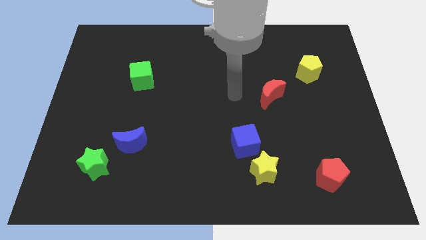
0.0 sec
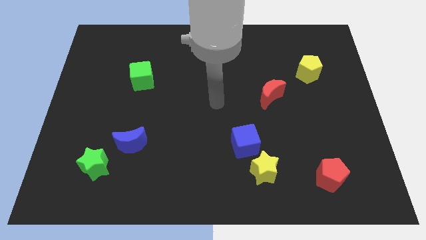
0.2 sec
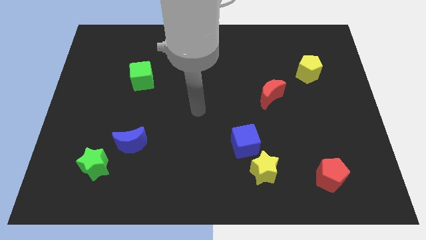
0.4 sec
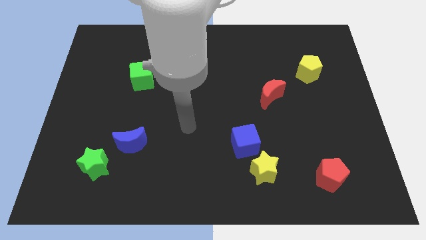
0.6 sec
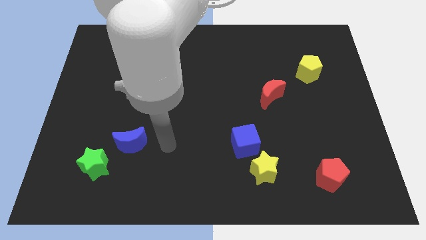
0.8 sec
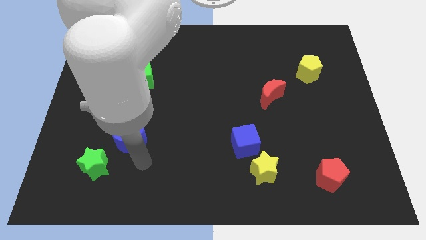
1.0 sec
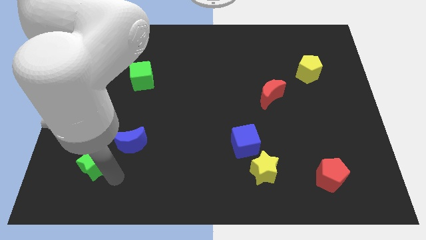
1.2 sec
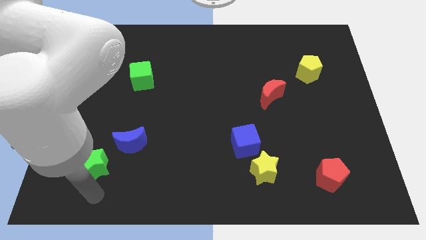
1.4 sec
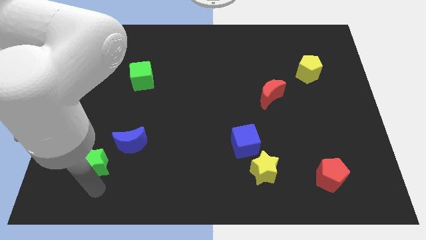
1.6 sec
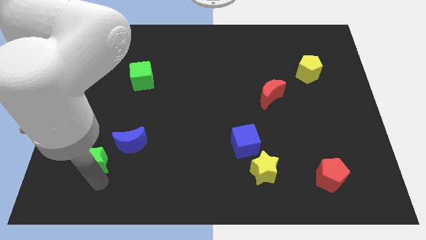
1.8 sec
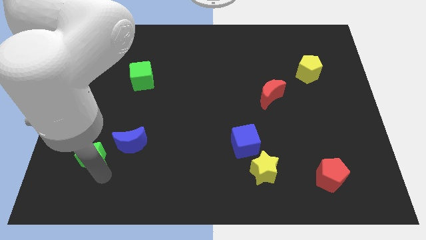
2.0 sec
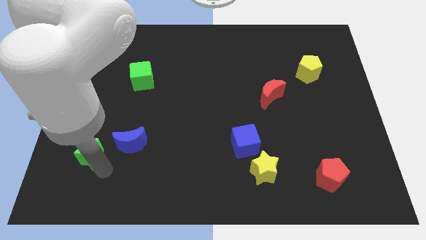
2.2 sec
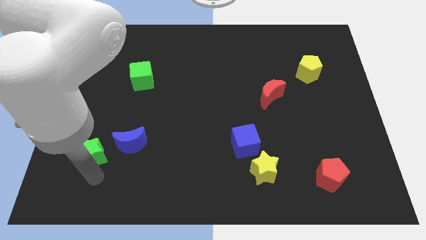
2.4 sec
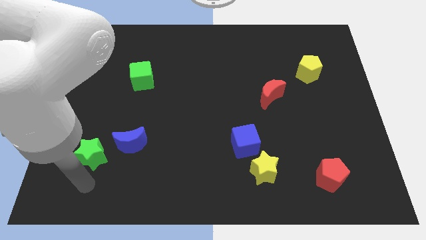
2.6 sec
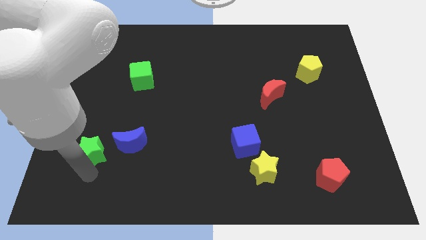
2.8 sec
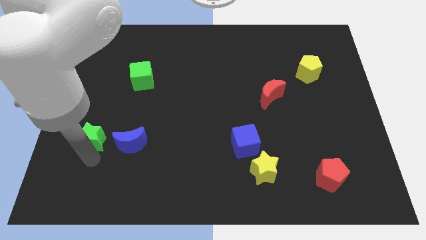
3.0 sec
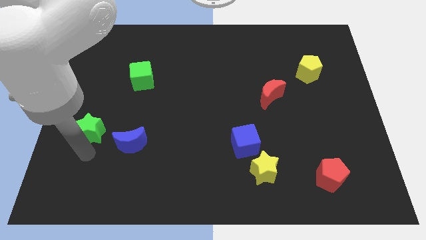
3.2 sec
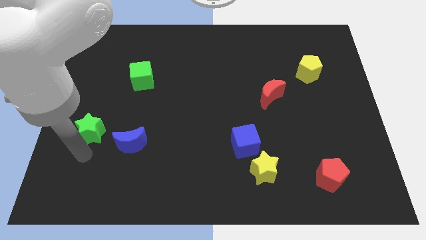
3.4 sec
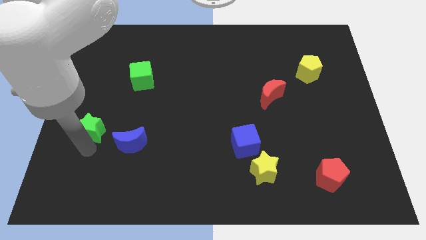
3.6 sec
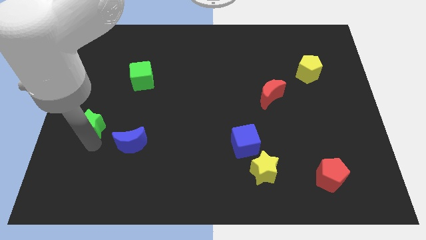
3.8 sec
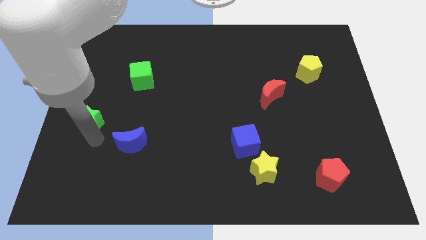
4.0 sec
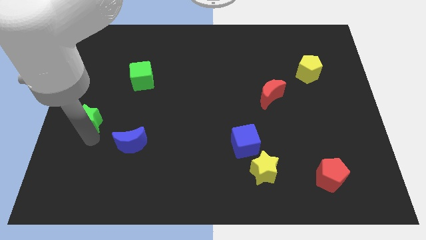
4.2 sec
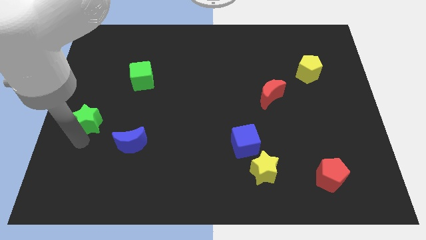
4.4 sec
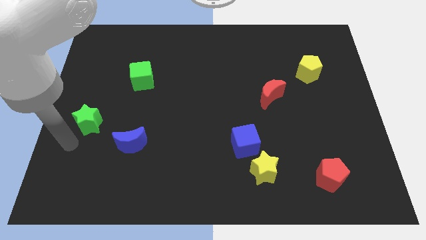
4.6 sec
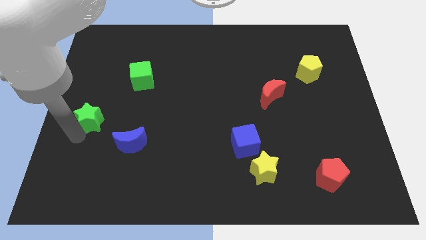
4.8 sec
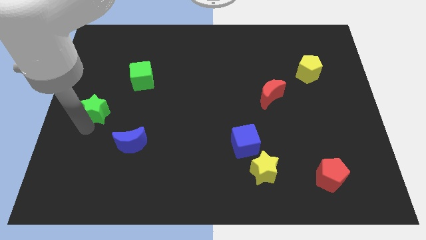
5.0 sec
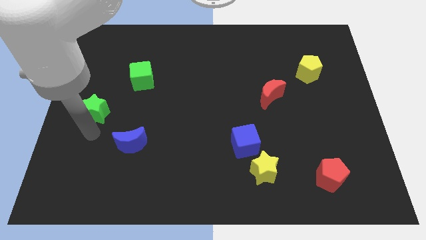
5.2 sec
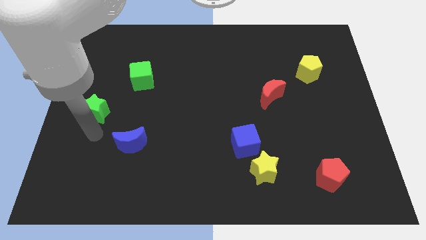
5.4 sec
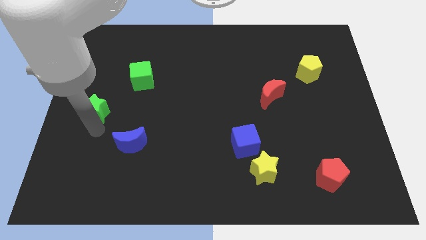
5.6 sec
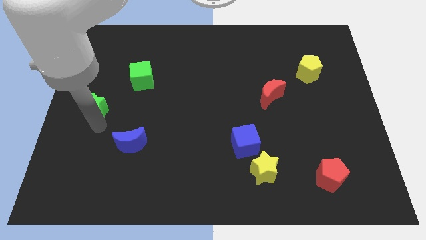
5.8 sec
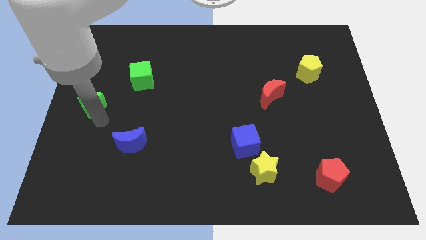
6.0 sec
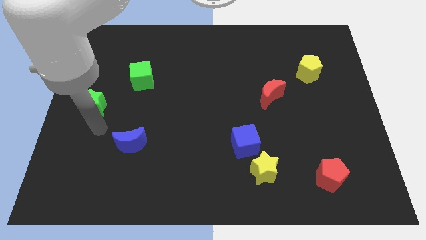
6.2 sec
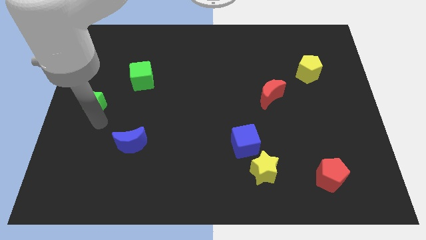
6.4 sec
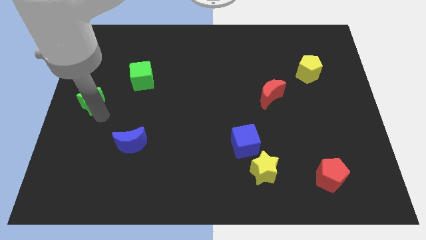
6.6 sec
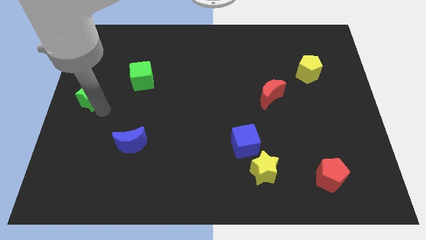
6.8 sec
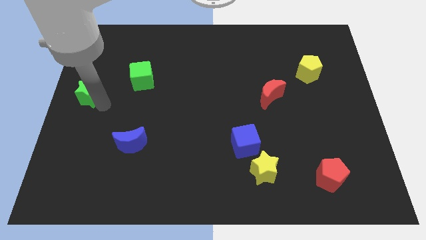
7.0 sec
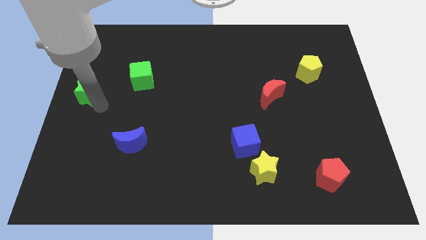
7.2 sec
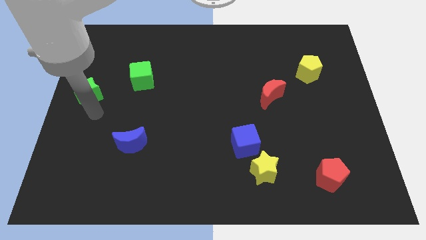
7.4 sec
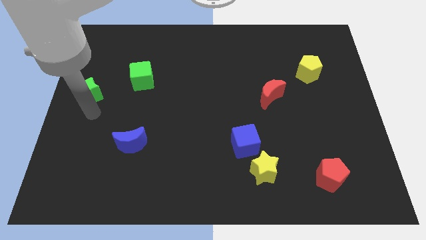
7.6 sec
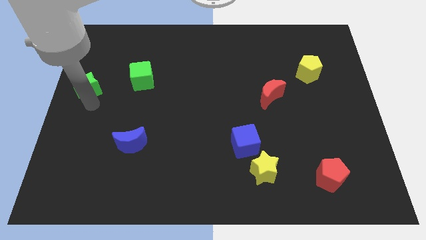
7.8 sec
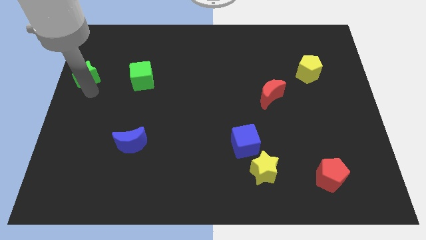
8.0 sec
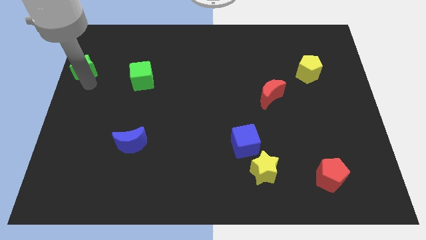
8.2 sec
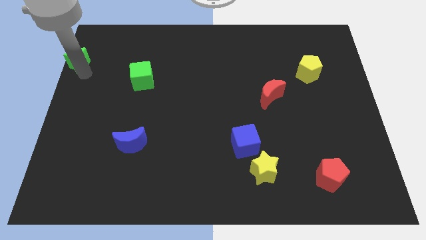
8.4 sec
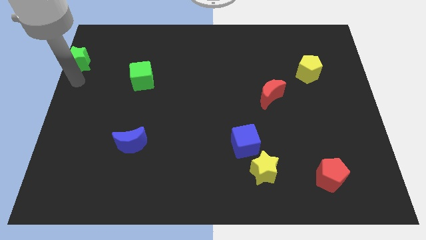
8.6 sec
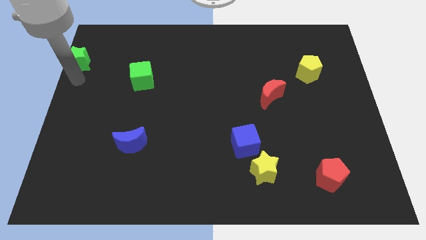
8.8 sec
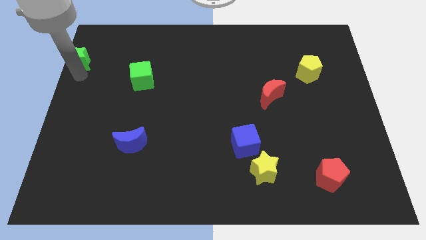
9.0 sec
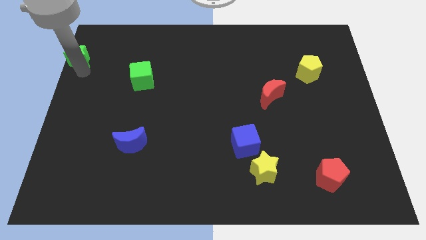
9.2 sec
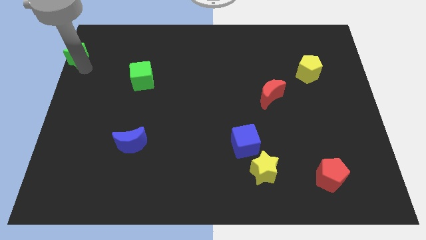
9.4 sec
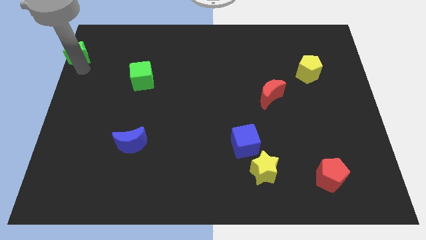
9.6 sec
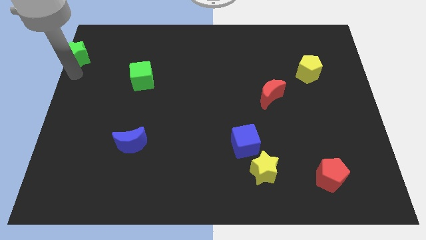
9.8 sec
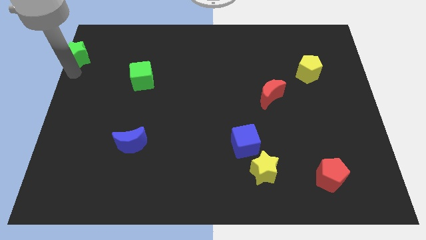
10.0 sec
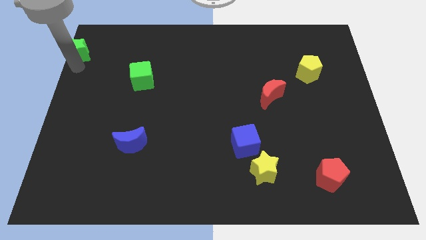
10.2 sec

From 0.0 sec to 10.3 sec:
slide the green star to the top left of the board

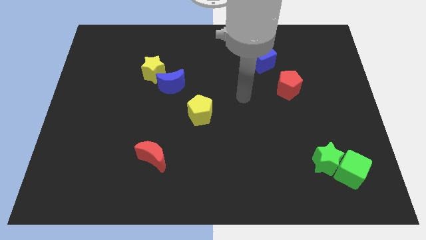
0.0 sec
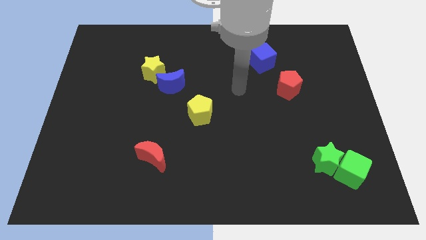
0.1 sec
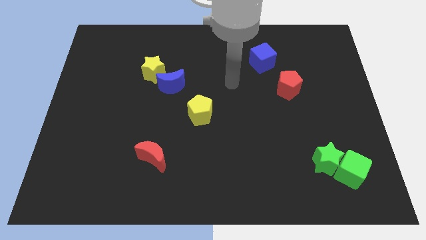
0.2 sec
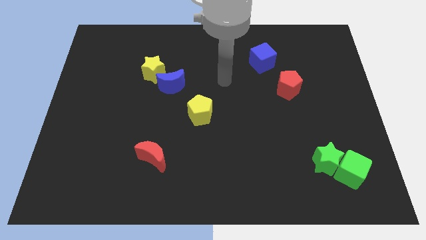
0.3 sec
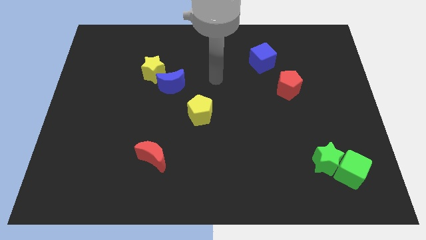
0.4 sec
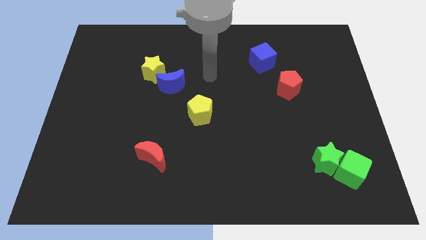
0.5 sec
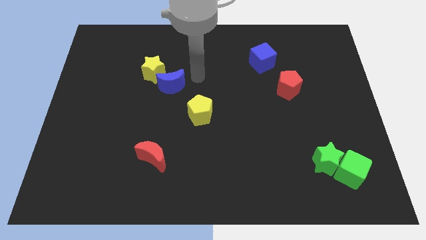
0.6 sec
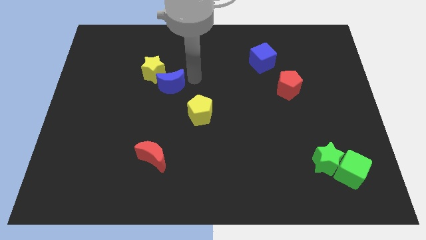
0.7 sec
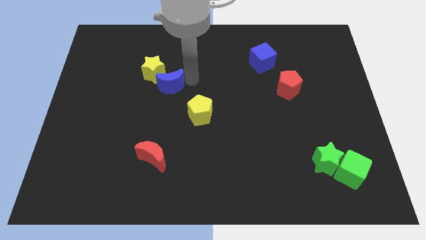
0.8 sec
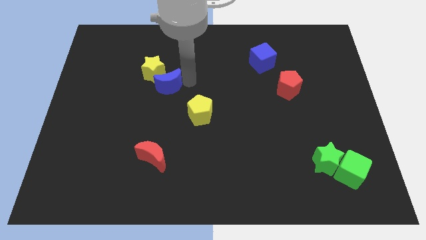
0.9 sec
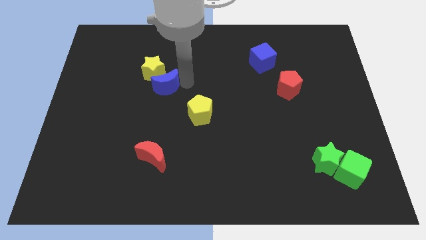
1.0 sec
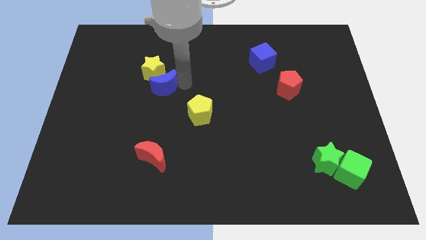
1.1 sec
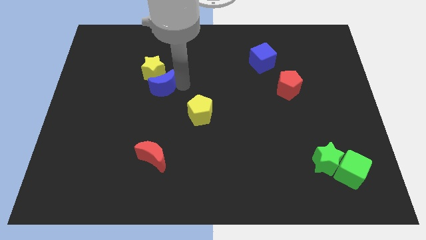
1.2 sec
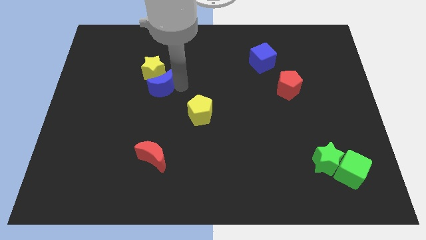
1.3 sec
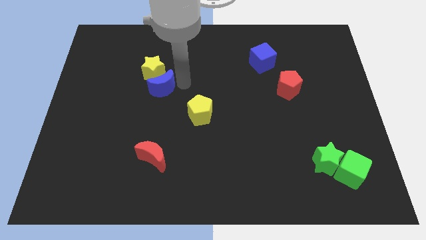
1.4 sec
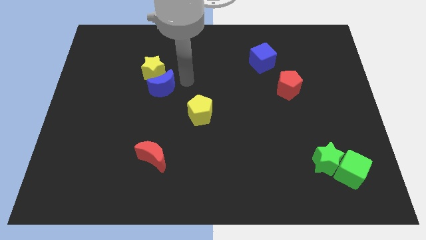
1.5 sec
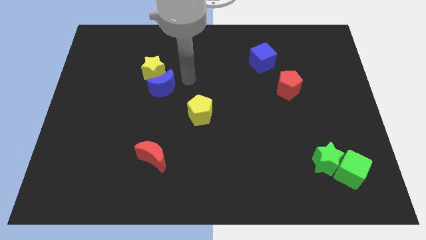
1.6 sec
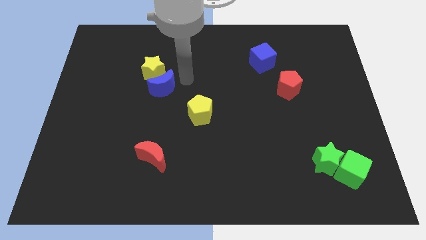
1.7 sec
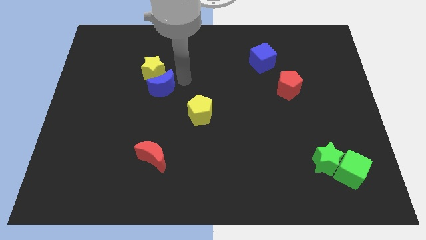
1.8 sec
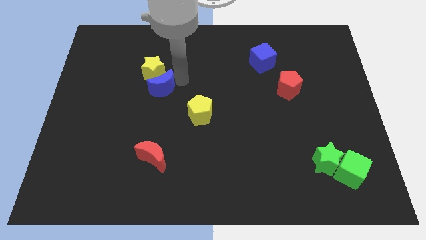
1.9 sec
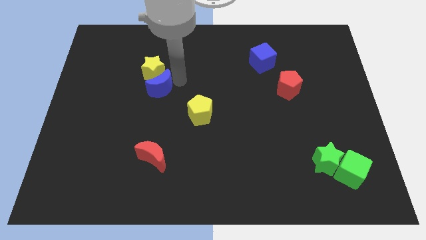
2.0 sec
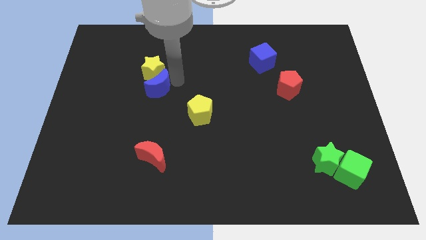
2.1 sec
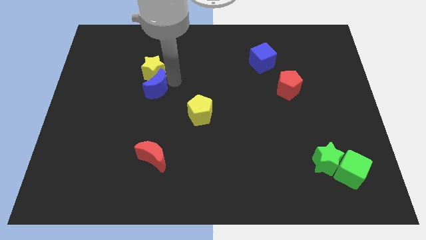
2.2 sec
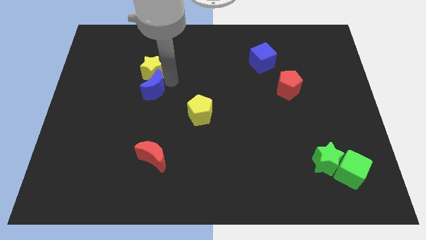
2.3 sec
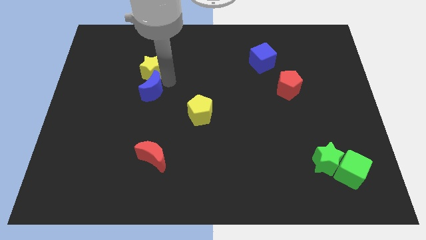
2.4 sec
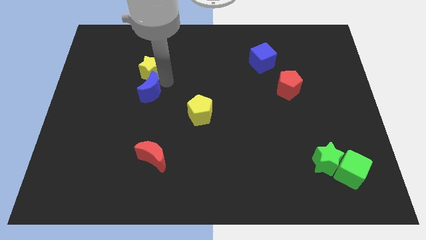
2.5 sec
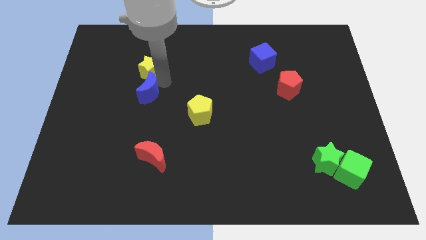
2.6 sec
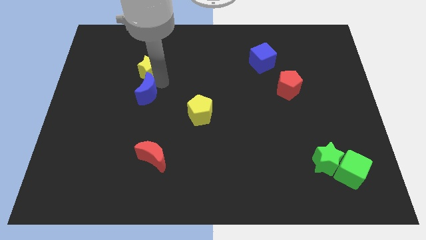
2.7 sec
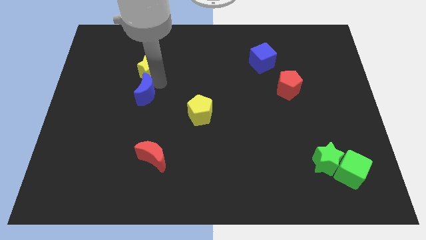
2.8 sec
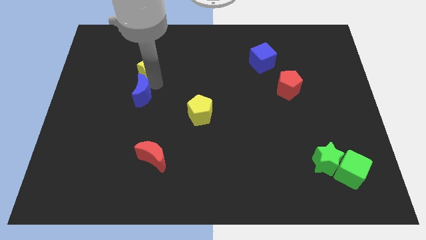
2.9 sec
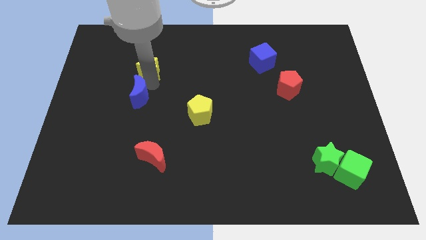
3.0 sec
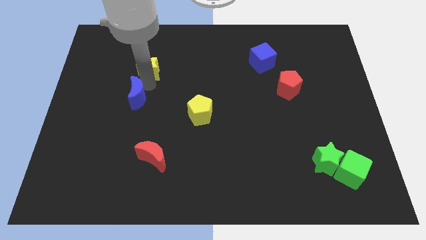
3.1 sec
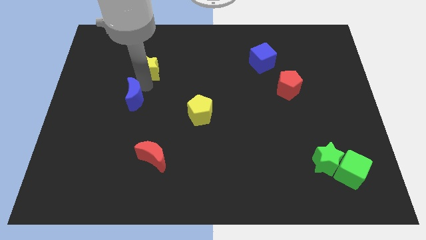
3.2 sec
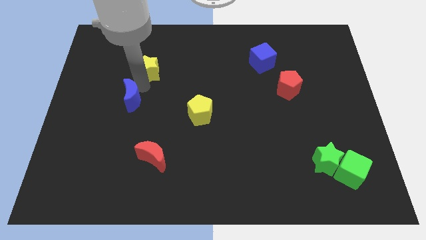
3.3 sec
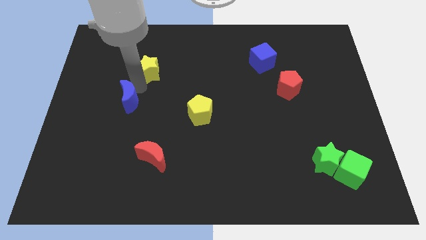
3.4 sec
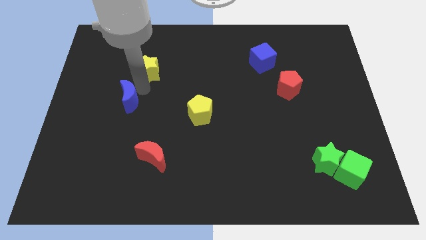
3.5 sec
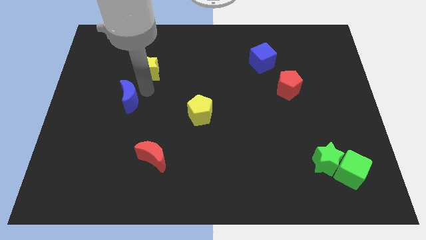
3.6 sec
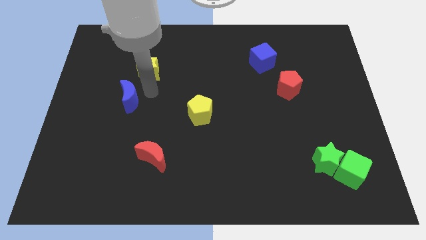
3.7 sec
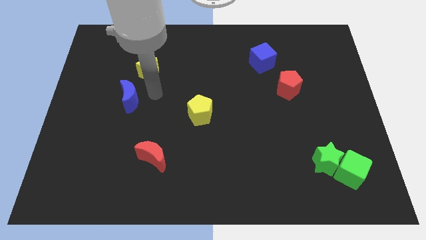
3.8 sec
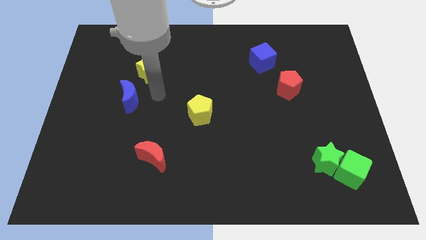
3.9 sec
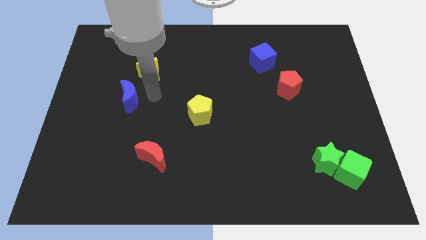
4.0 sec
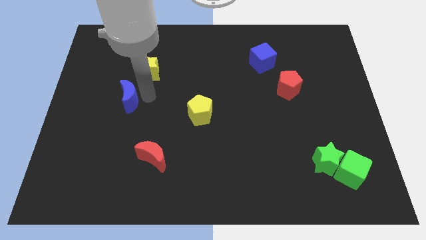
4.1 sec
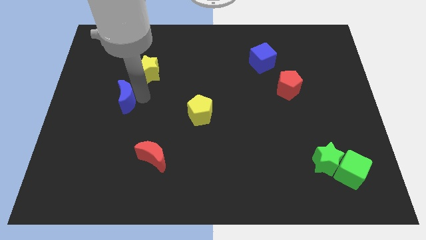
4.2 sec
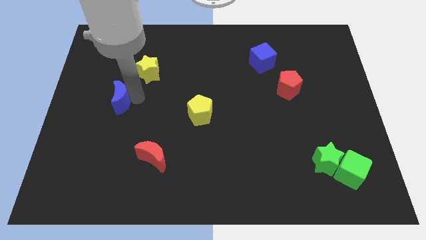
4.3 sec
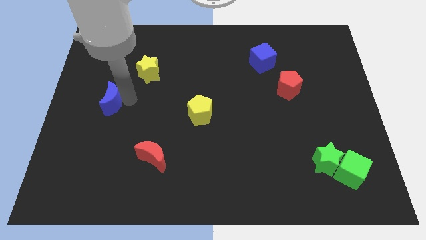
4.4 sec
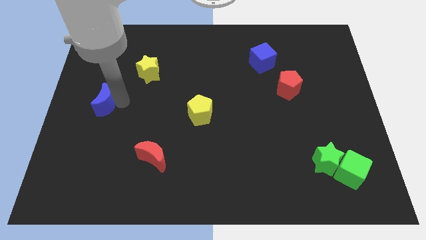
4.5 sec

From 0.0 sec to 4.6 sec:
push the blue moon to the center left
